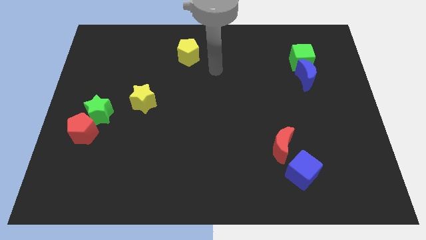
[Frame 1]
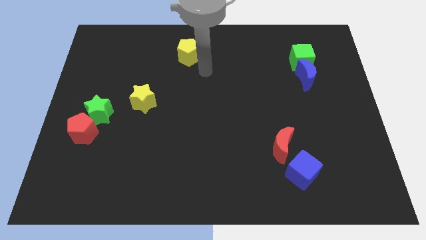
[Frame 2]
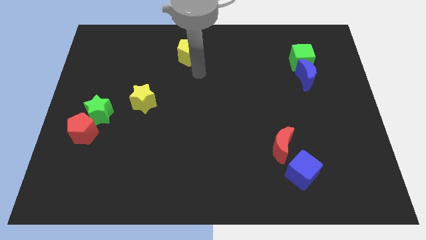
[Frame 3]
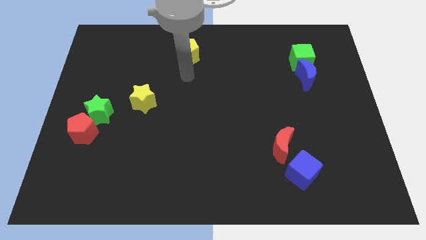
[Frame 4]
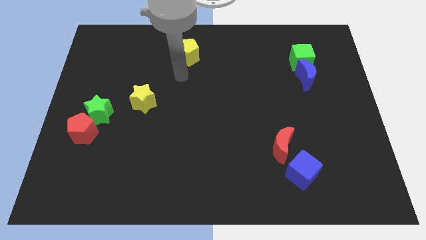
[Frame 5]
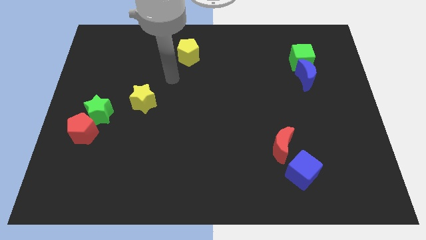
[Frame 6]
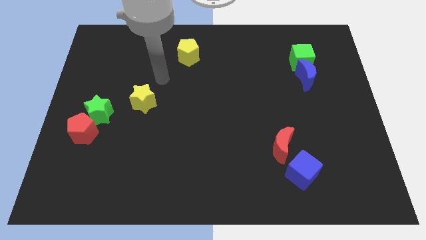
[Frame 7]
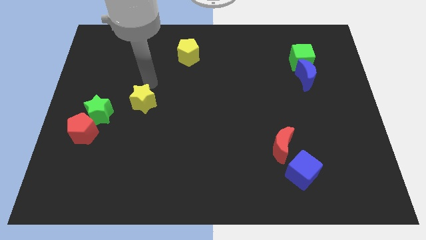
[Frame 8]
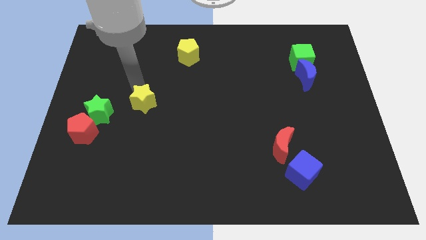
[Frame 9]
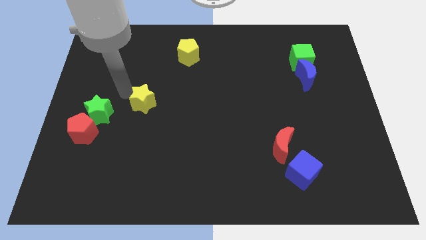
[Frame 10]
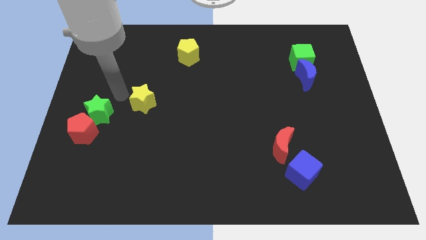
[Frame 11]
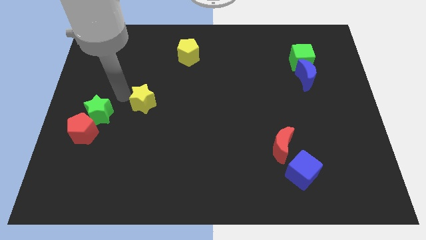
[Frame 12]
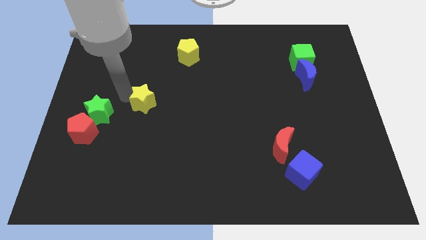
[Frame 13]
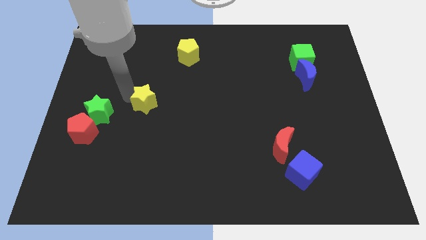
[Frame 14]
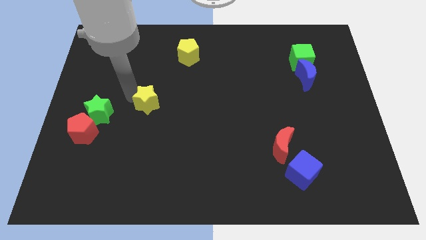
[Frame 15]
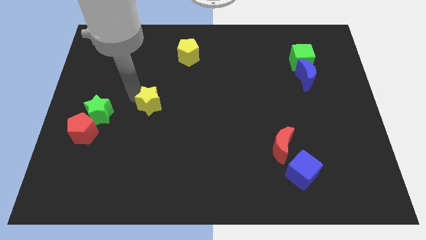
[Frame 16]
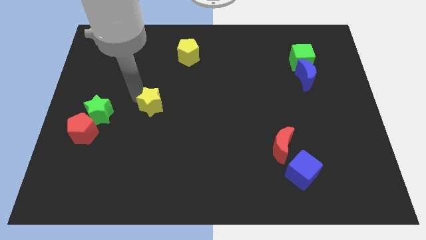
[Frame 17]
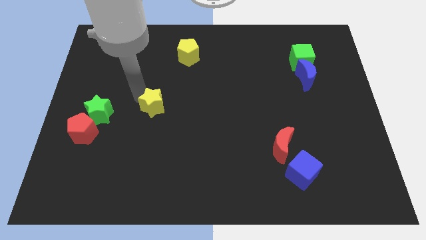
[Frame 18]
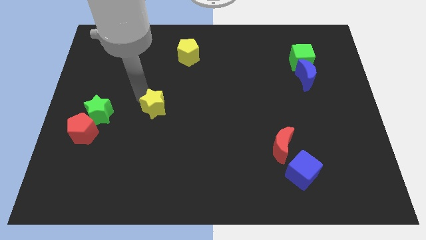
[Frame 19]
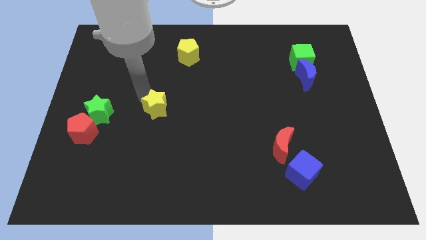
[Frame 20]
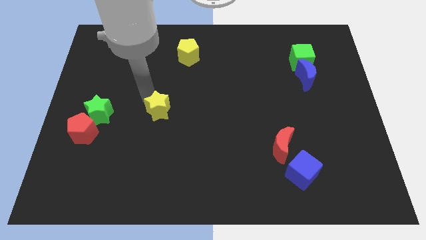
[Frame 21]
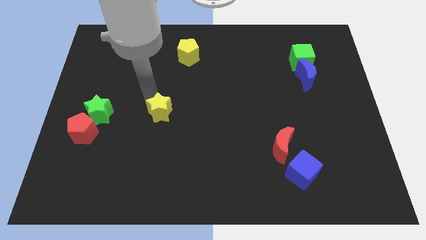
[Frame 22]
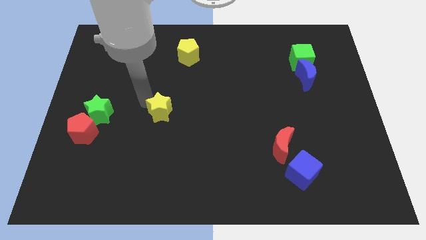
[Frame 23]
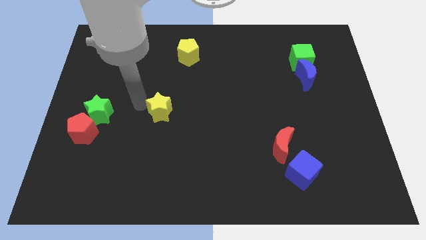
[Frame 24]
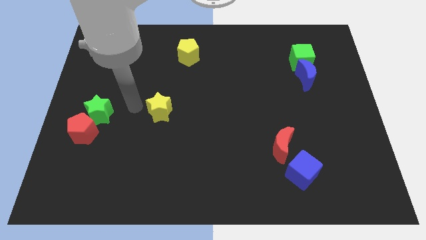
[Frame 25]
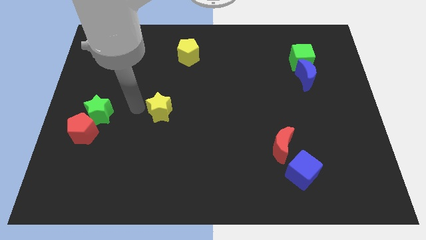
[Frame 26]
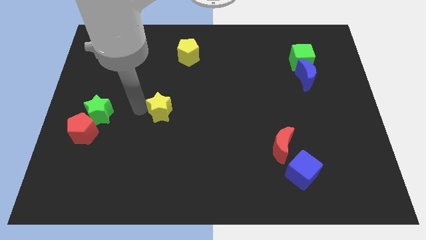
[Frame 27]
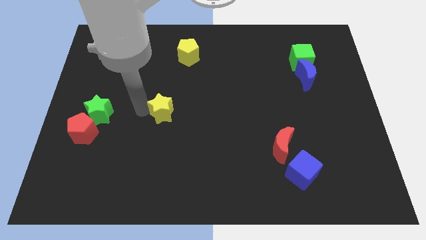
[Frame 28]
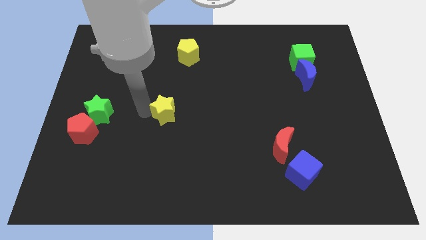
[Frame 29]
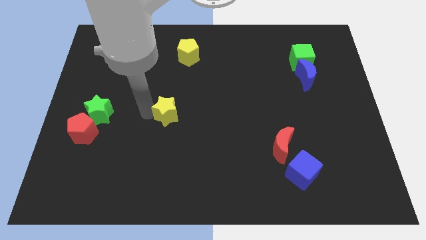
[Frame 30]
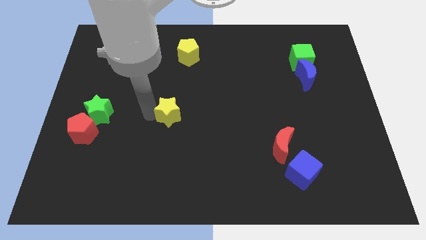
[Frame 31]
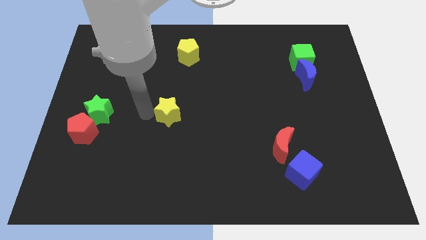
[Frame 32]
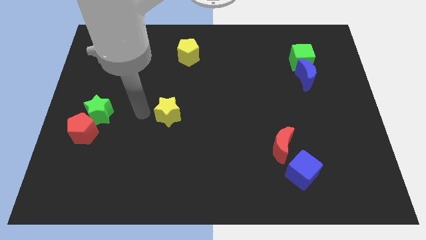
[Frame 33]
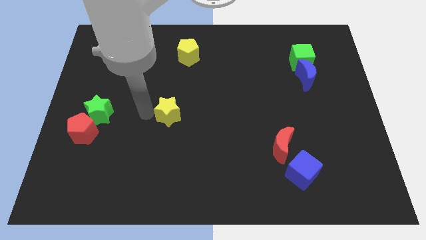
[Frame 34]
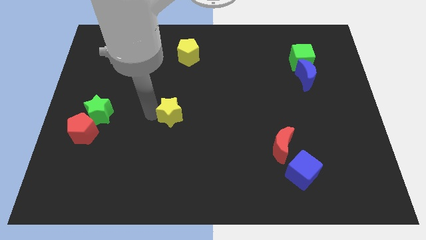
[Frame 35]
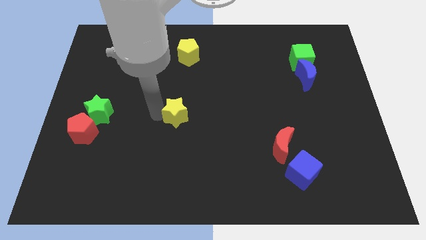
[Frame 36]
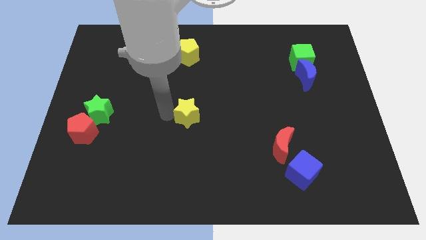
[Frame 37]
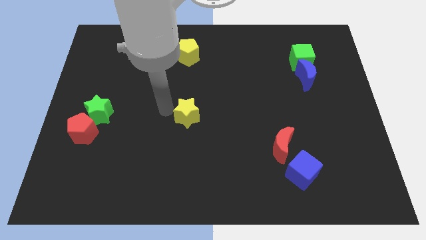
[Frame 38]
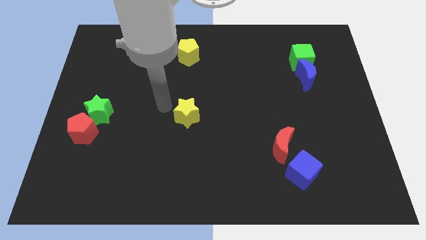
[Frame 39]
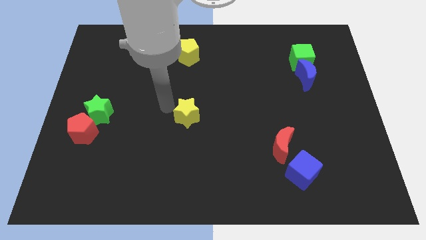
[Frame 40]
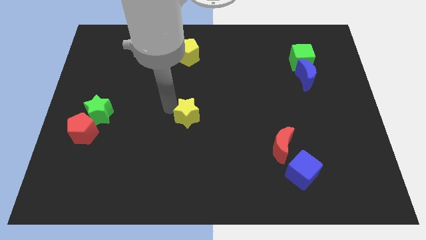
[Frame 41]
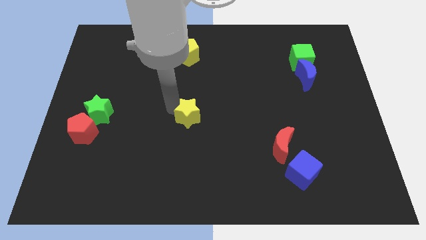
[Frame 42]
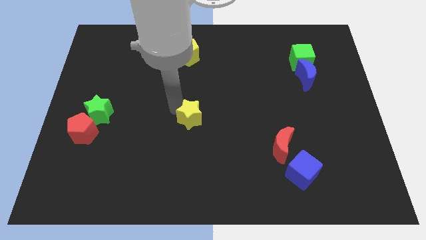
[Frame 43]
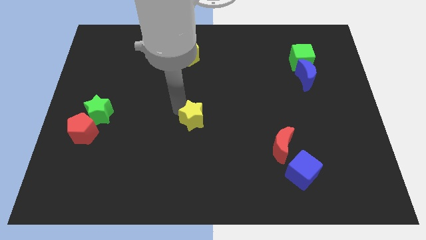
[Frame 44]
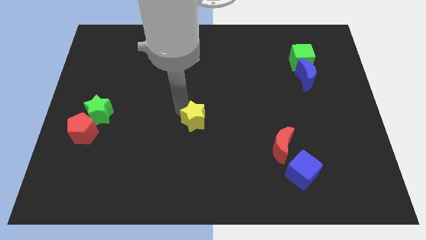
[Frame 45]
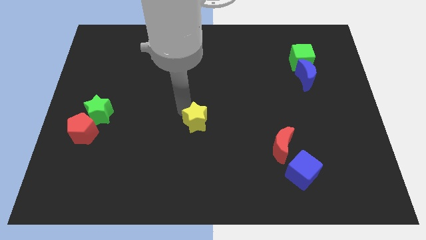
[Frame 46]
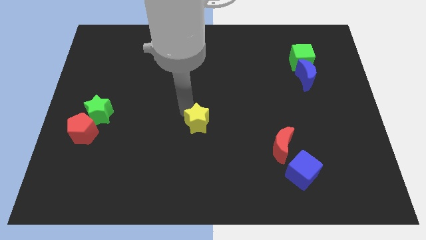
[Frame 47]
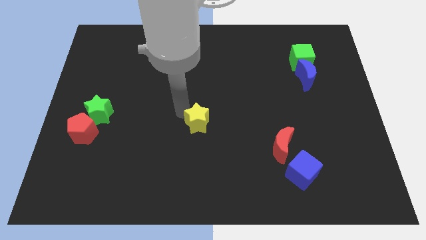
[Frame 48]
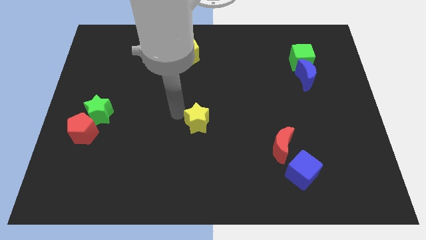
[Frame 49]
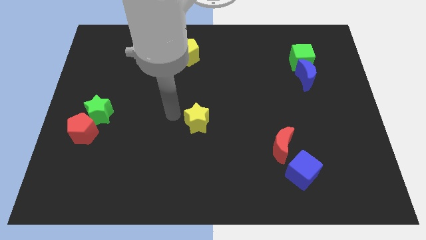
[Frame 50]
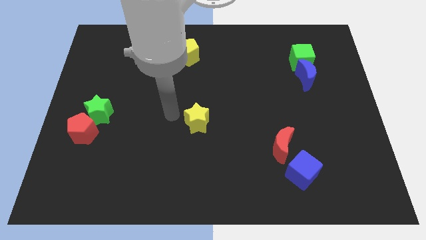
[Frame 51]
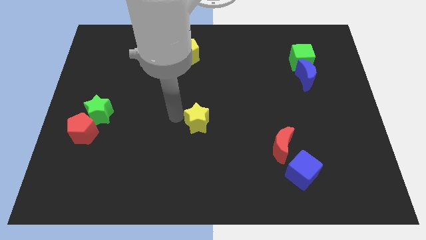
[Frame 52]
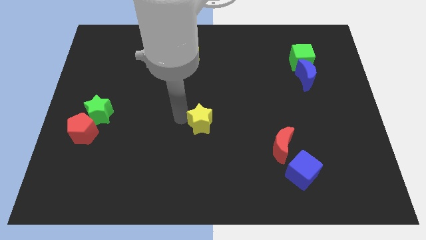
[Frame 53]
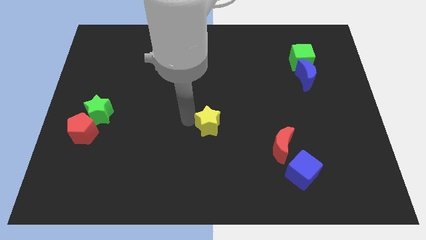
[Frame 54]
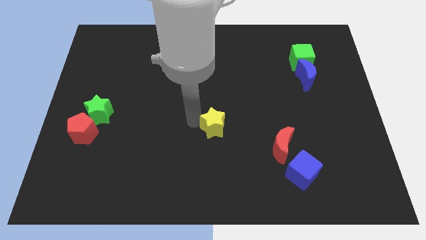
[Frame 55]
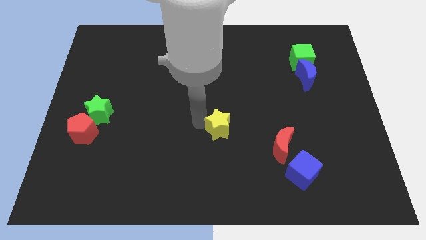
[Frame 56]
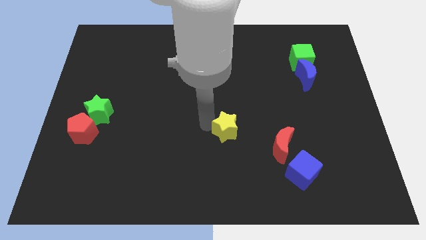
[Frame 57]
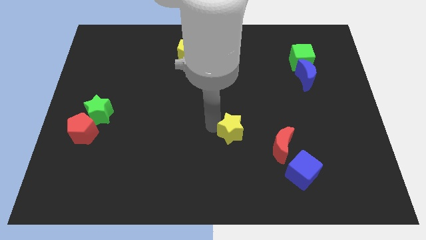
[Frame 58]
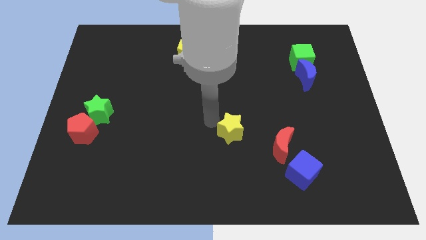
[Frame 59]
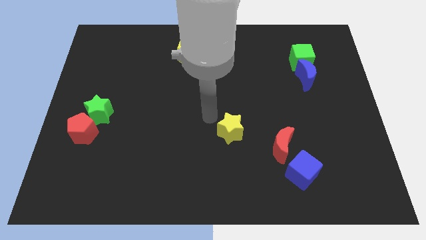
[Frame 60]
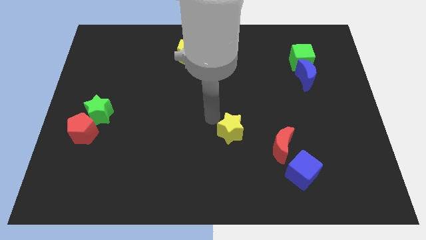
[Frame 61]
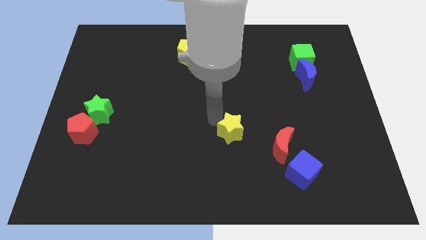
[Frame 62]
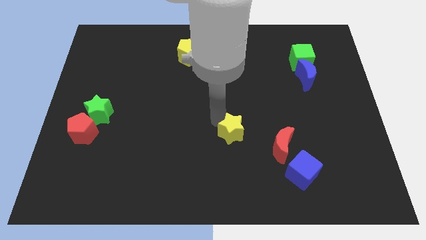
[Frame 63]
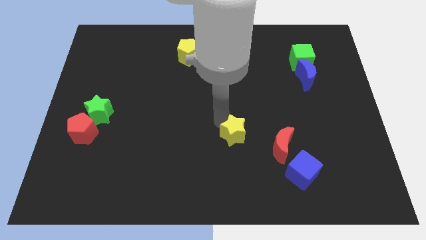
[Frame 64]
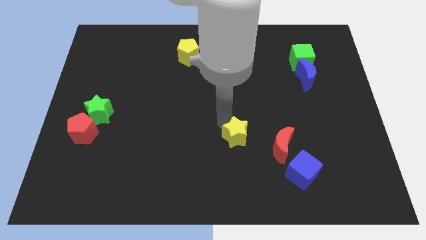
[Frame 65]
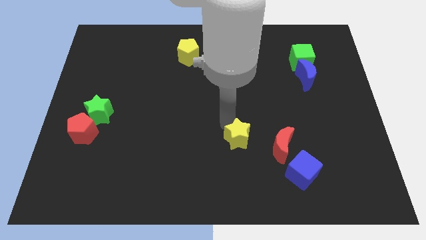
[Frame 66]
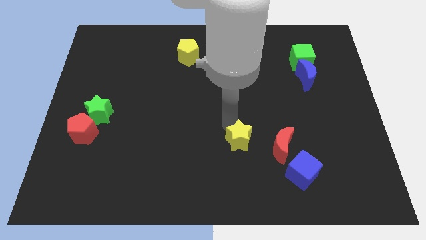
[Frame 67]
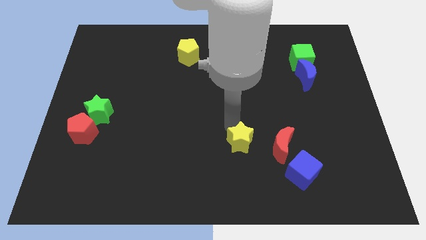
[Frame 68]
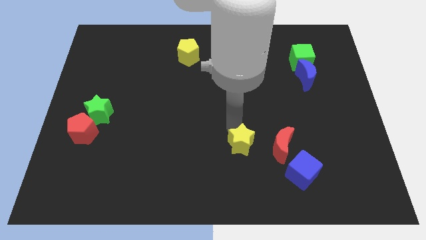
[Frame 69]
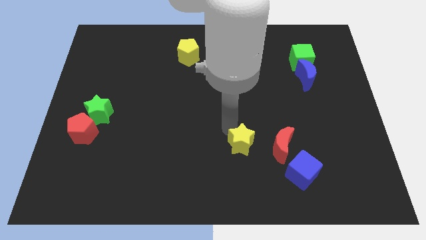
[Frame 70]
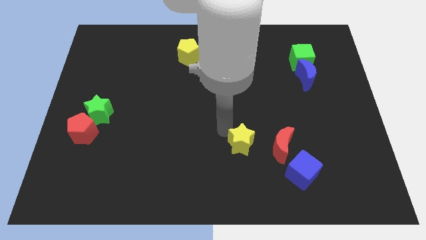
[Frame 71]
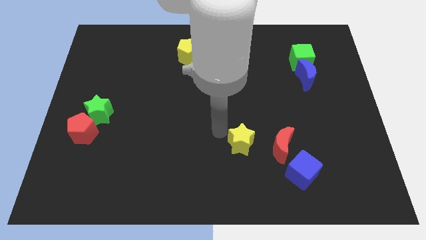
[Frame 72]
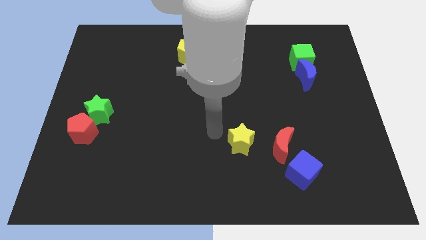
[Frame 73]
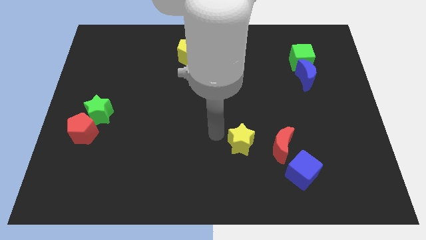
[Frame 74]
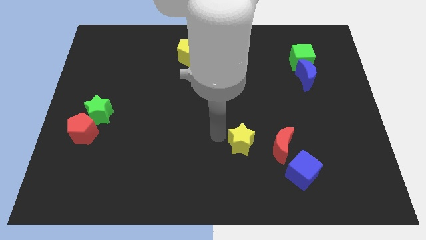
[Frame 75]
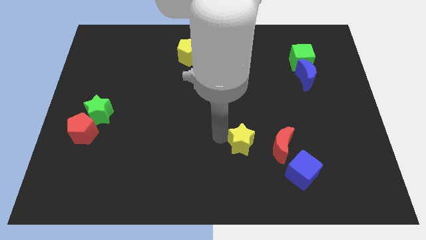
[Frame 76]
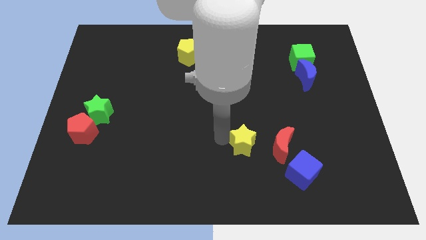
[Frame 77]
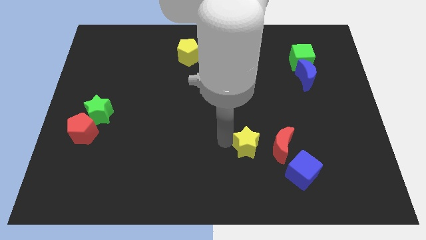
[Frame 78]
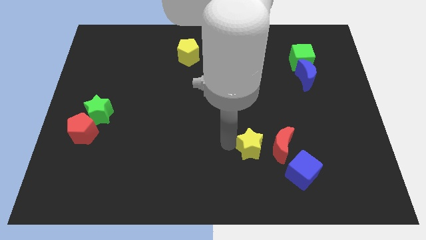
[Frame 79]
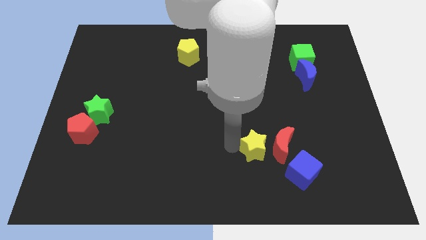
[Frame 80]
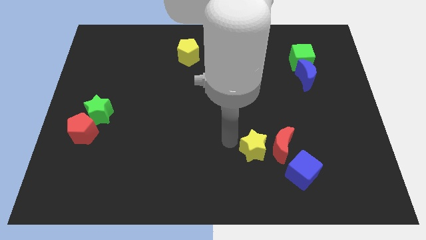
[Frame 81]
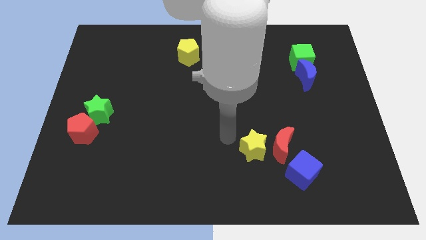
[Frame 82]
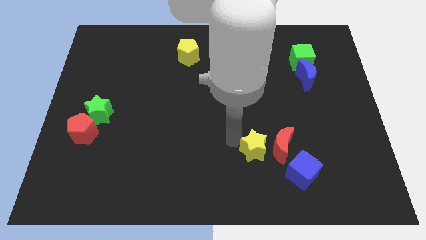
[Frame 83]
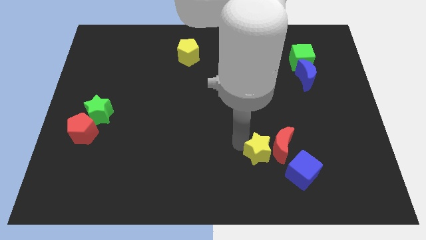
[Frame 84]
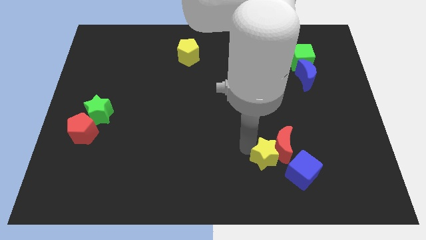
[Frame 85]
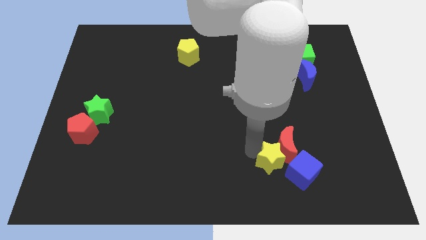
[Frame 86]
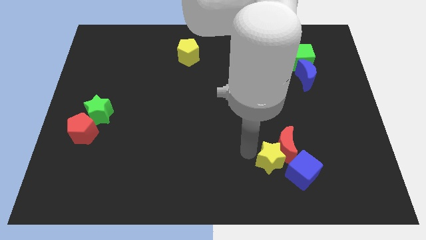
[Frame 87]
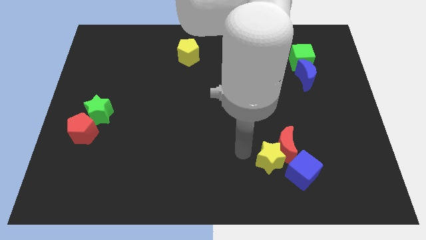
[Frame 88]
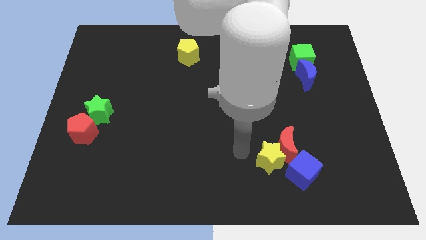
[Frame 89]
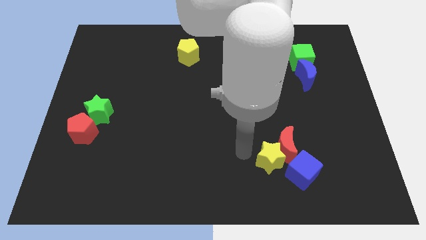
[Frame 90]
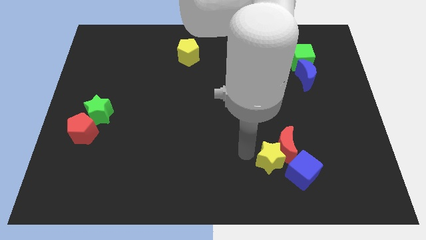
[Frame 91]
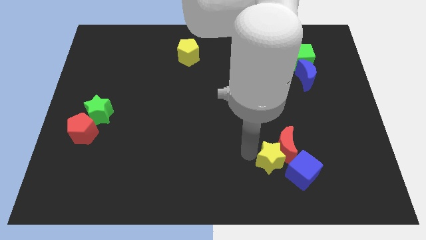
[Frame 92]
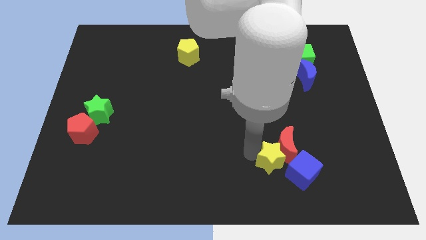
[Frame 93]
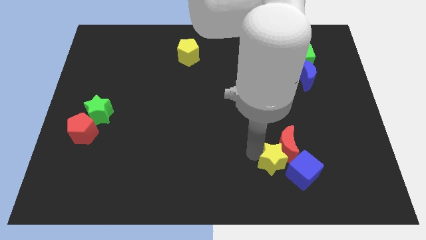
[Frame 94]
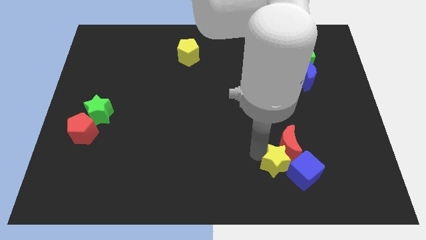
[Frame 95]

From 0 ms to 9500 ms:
push the yellow star to the blue cube
